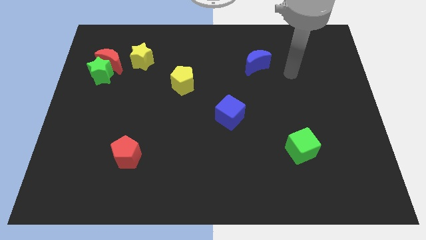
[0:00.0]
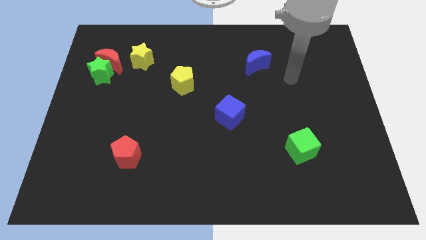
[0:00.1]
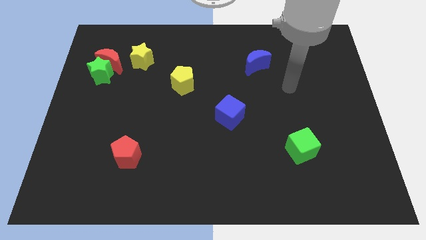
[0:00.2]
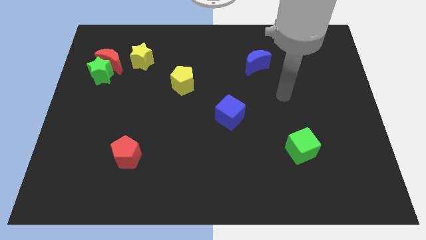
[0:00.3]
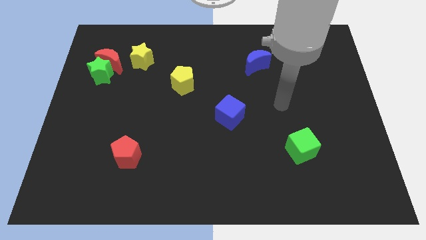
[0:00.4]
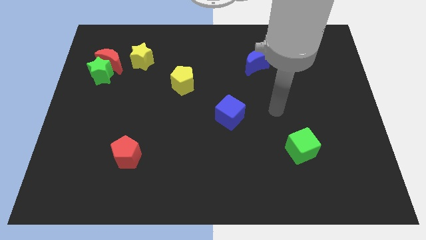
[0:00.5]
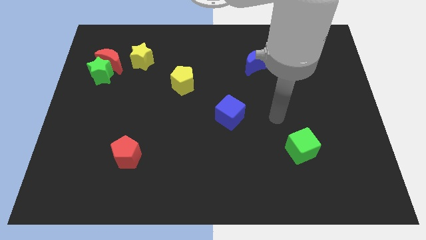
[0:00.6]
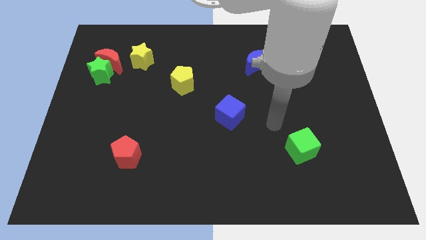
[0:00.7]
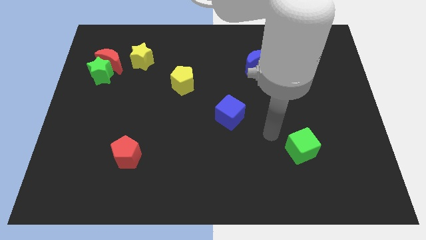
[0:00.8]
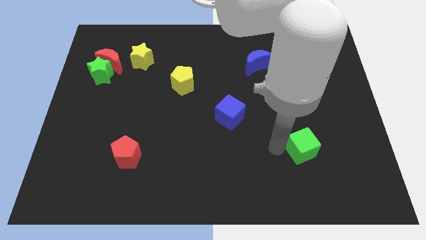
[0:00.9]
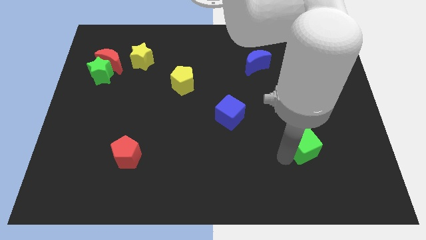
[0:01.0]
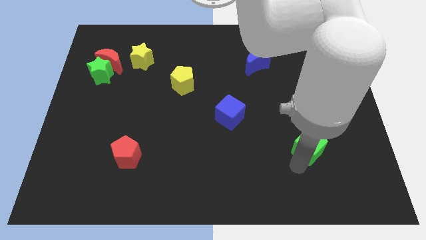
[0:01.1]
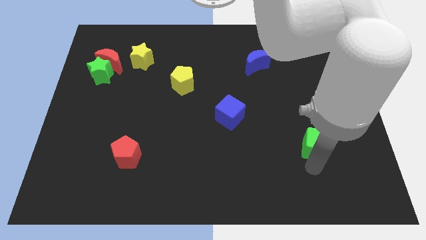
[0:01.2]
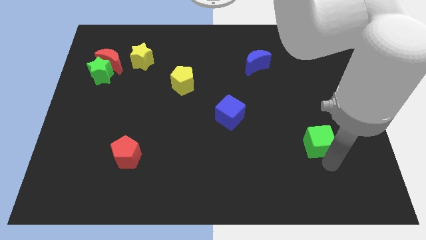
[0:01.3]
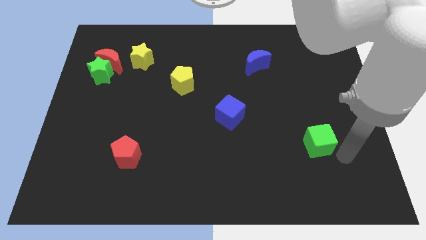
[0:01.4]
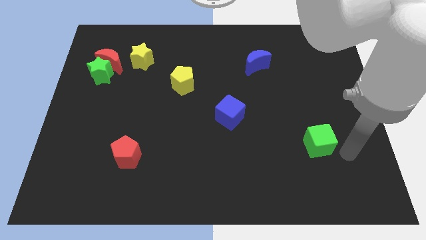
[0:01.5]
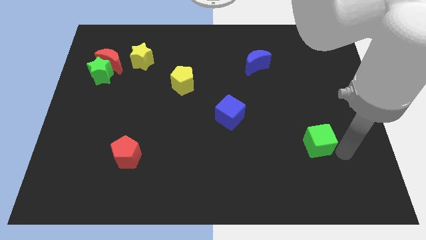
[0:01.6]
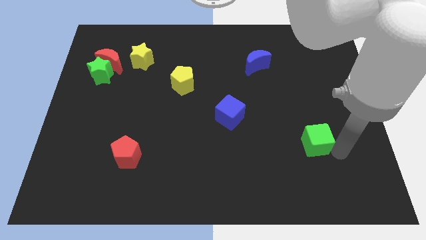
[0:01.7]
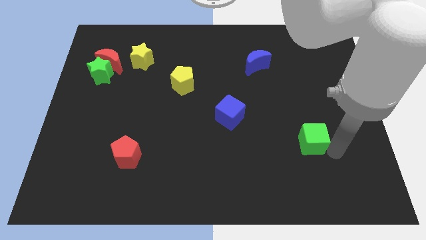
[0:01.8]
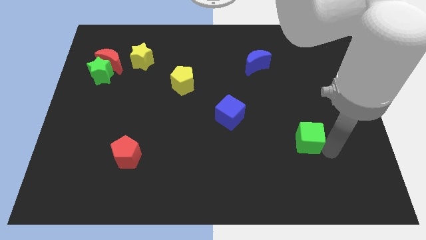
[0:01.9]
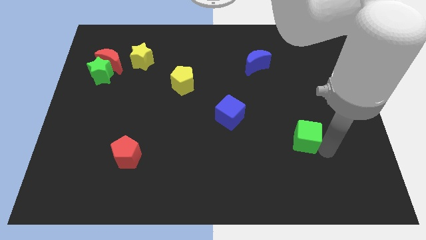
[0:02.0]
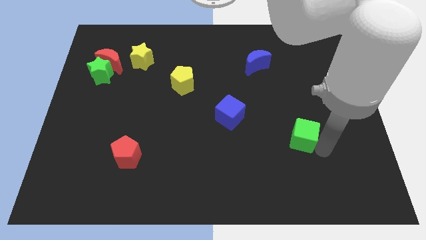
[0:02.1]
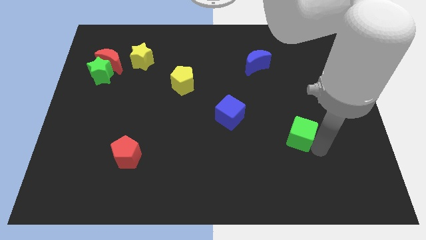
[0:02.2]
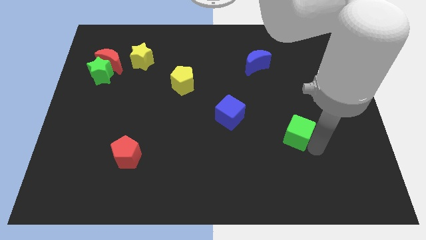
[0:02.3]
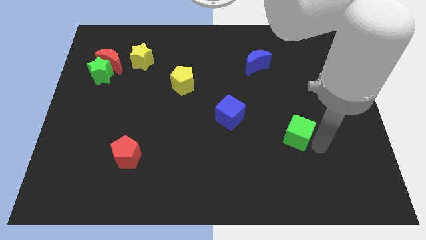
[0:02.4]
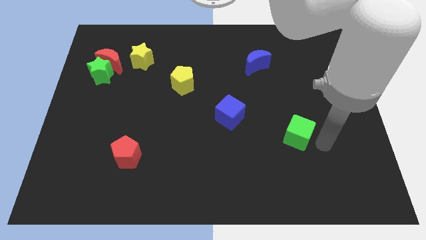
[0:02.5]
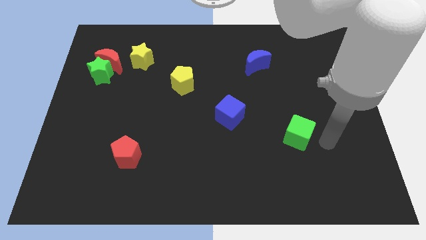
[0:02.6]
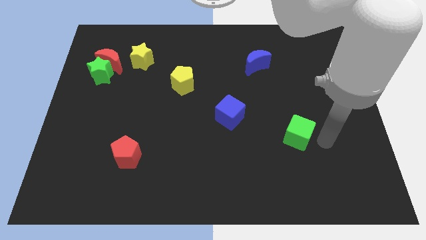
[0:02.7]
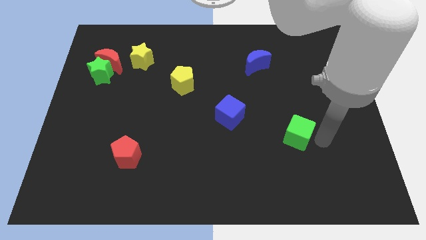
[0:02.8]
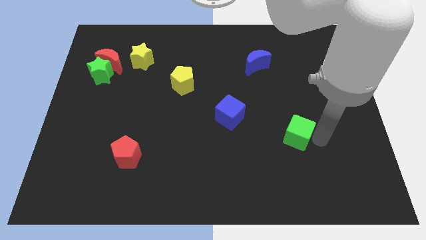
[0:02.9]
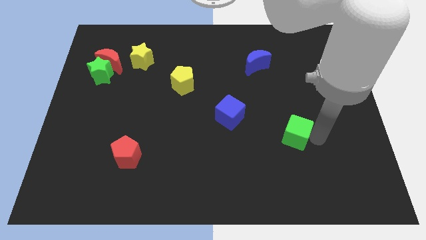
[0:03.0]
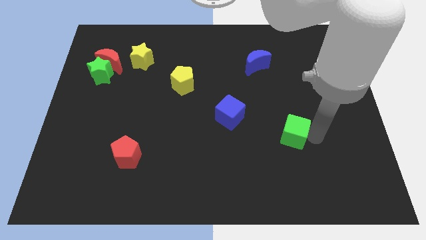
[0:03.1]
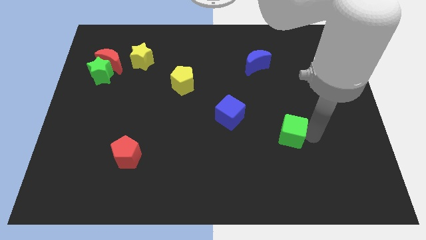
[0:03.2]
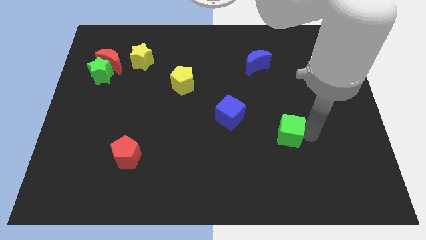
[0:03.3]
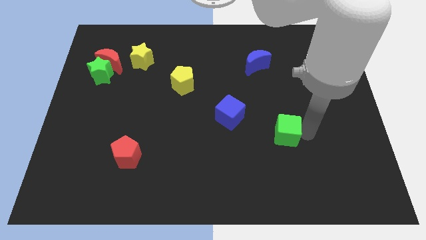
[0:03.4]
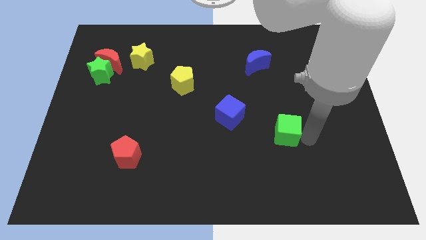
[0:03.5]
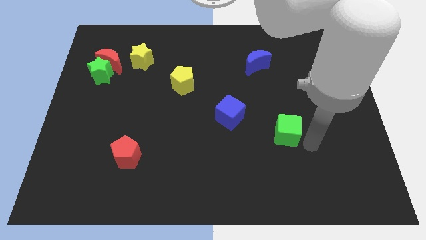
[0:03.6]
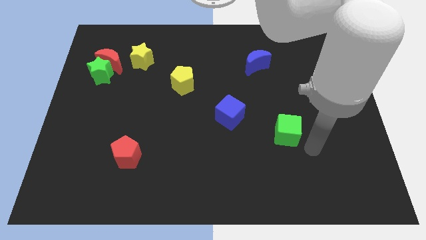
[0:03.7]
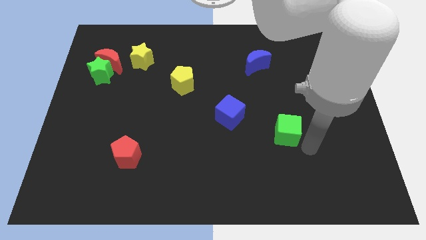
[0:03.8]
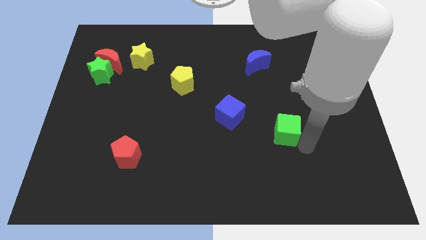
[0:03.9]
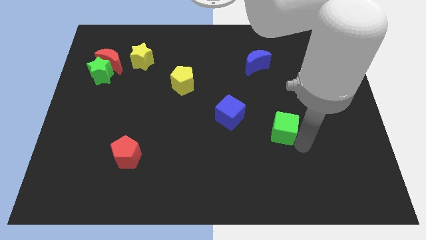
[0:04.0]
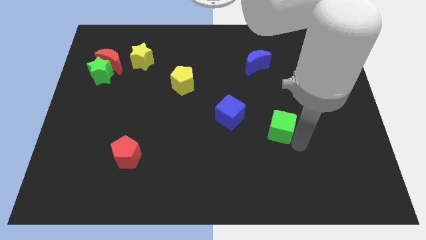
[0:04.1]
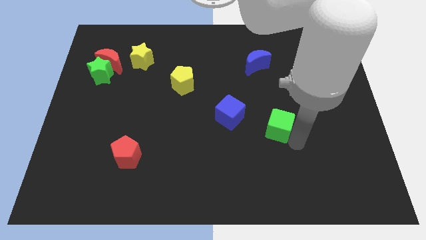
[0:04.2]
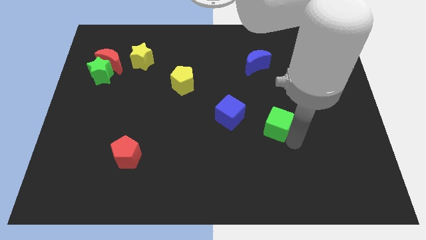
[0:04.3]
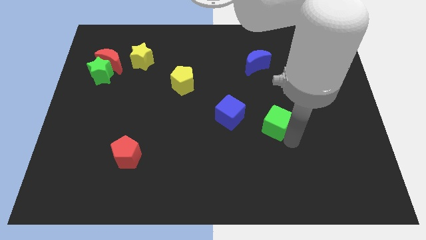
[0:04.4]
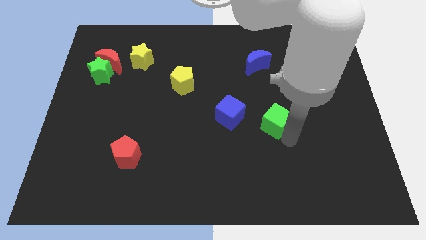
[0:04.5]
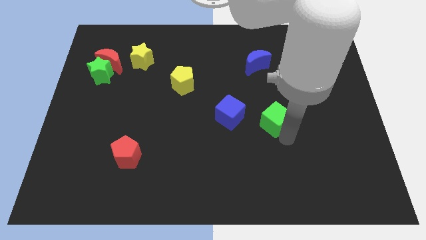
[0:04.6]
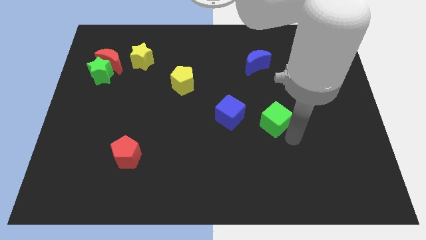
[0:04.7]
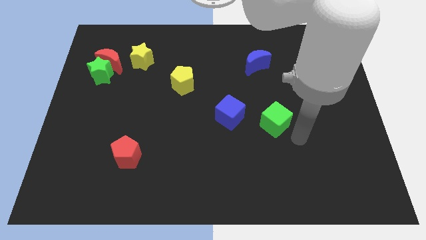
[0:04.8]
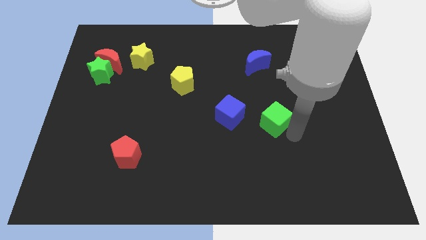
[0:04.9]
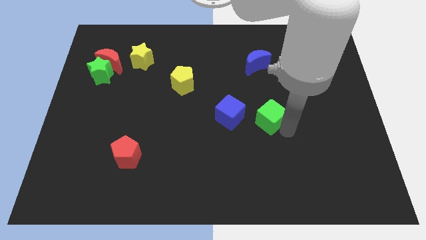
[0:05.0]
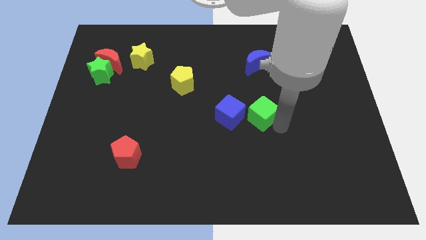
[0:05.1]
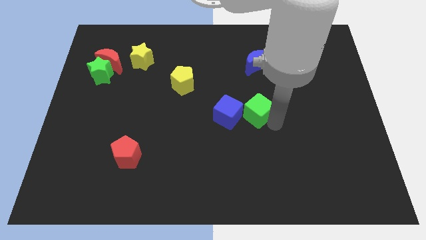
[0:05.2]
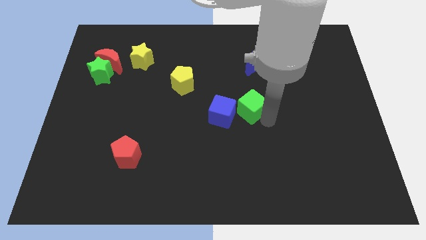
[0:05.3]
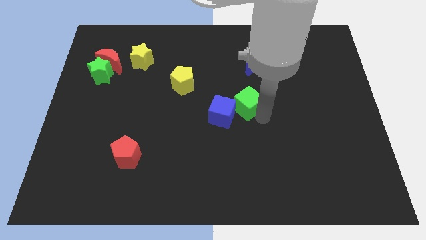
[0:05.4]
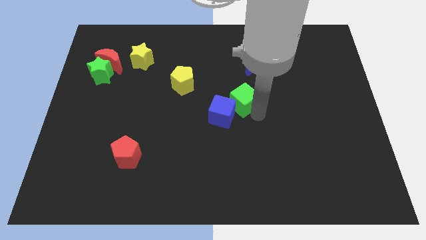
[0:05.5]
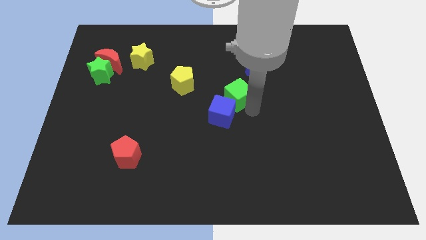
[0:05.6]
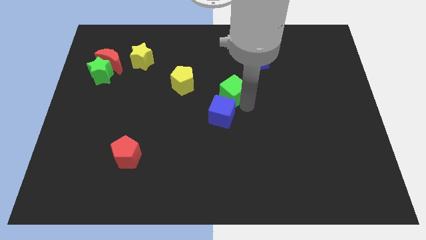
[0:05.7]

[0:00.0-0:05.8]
push the green cube diagonally up and to the left

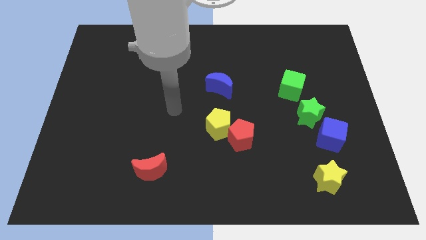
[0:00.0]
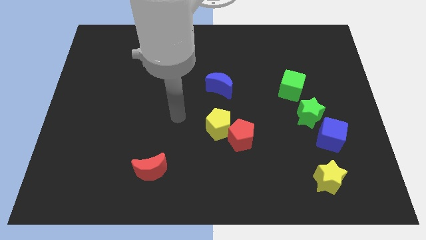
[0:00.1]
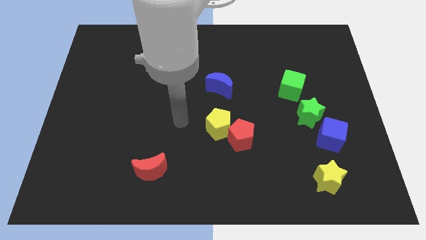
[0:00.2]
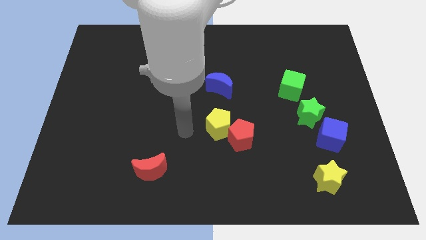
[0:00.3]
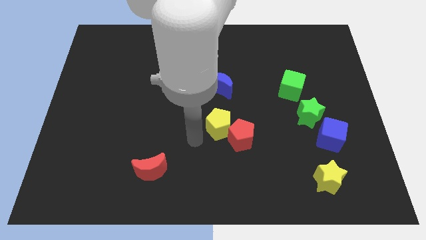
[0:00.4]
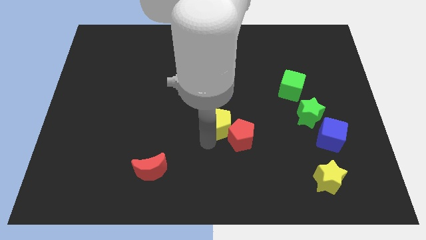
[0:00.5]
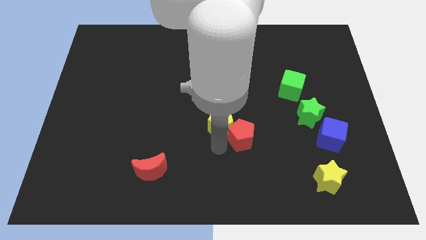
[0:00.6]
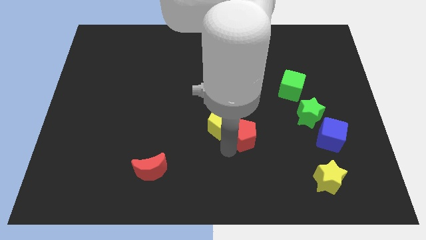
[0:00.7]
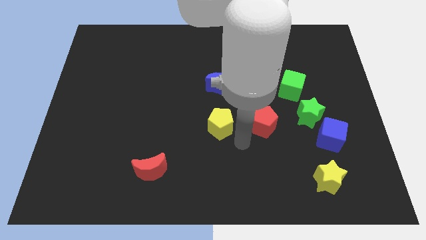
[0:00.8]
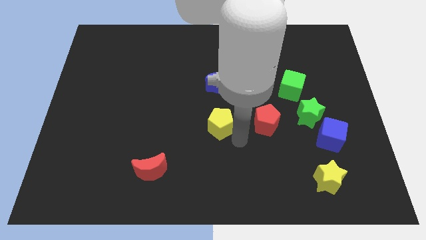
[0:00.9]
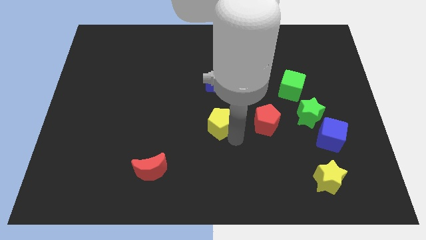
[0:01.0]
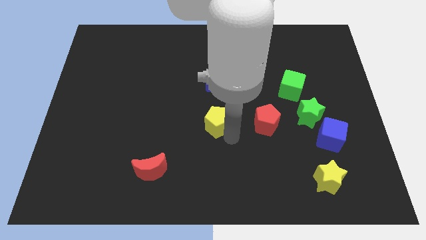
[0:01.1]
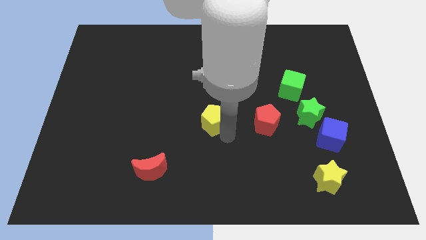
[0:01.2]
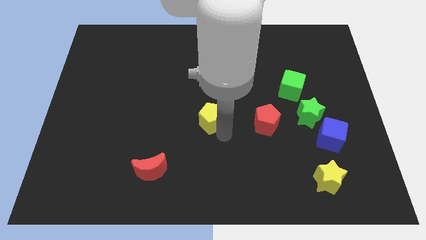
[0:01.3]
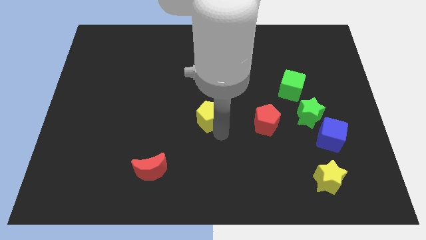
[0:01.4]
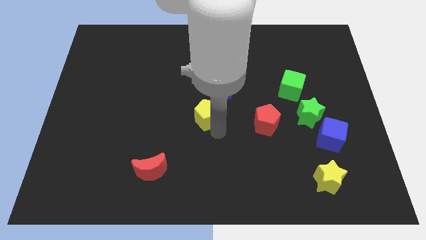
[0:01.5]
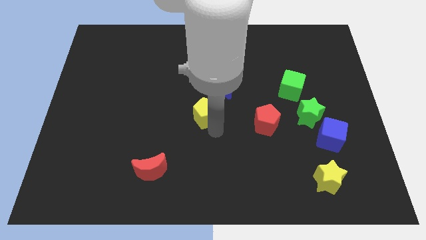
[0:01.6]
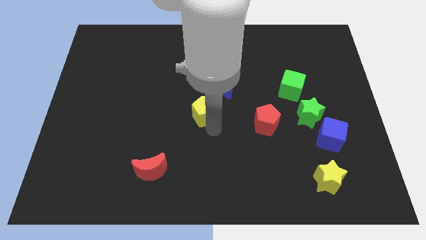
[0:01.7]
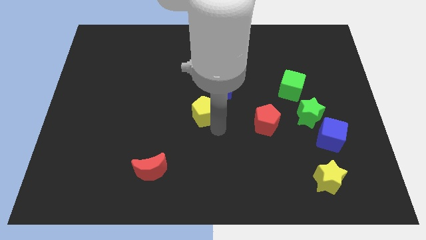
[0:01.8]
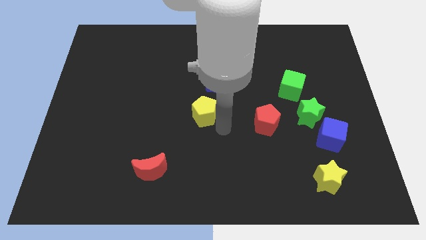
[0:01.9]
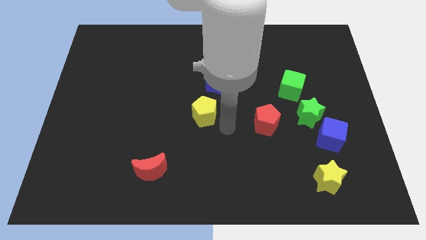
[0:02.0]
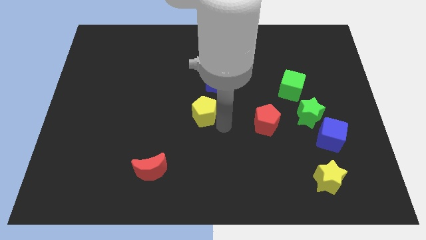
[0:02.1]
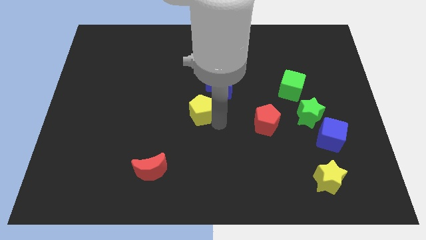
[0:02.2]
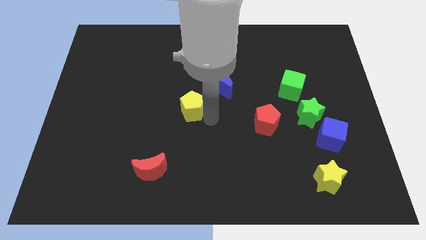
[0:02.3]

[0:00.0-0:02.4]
move the yellow pentagon up and to the left diagonally slightly
